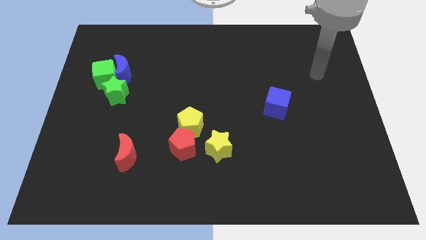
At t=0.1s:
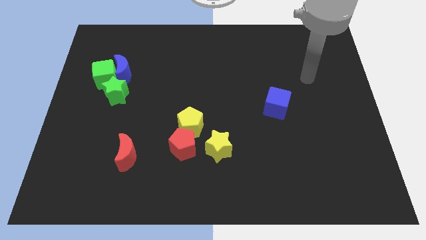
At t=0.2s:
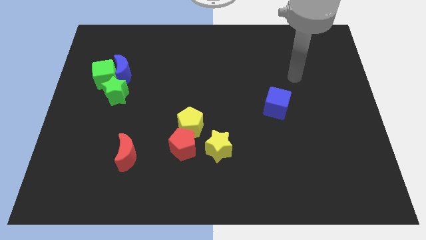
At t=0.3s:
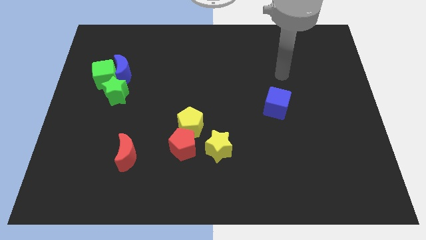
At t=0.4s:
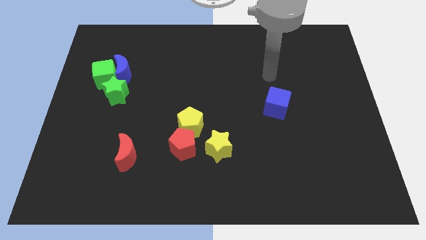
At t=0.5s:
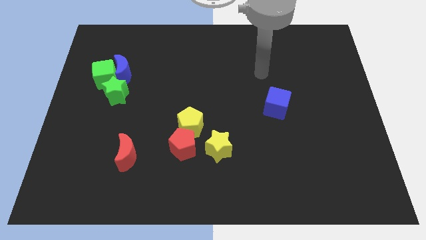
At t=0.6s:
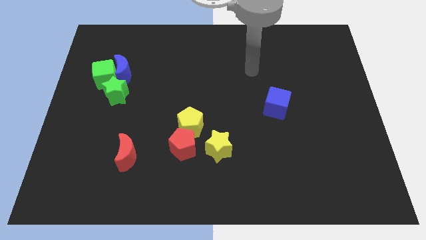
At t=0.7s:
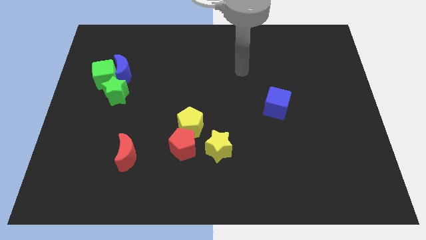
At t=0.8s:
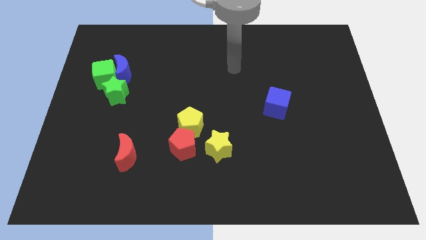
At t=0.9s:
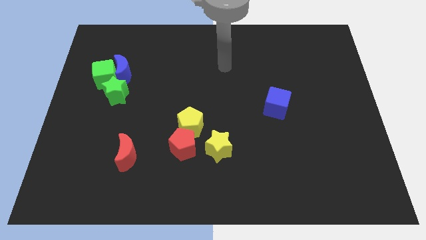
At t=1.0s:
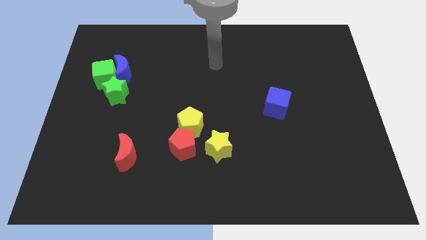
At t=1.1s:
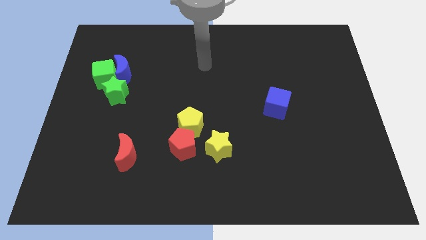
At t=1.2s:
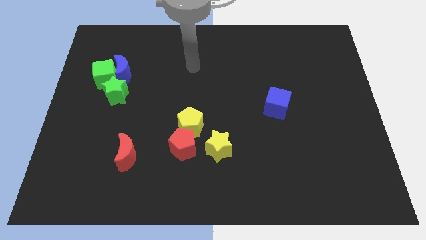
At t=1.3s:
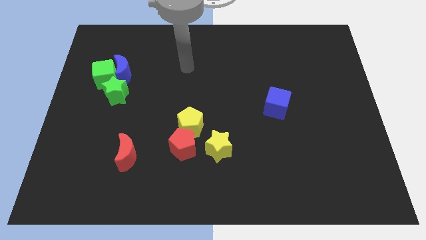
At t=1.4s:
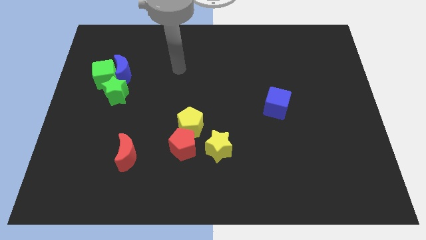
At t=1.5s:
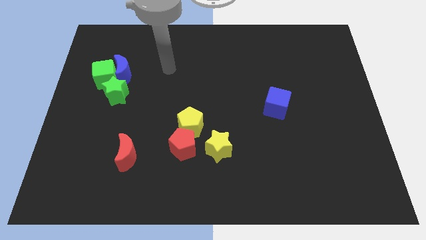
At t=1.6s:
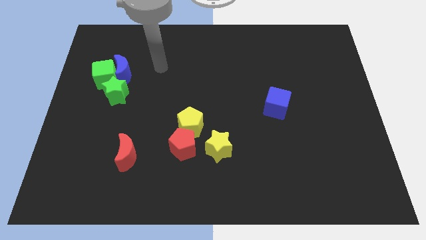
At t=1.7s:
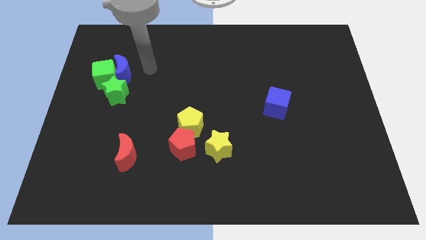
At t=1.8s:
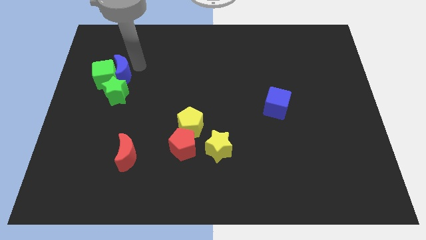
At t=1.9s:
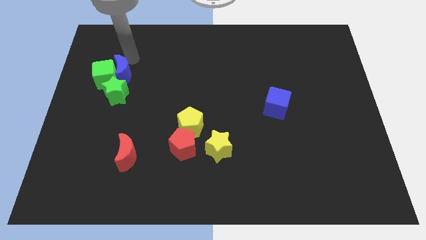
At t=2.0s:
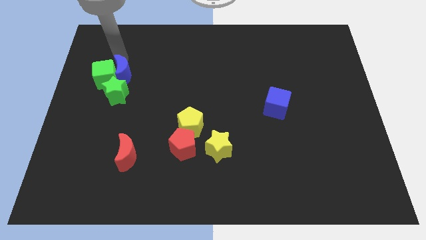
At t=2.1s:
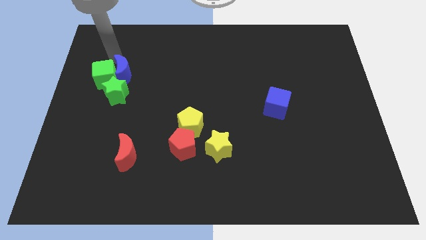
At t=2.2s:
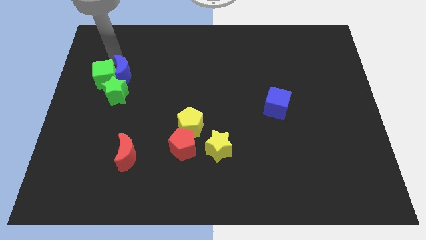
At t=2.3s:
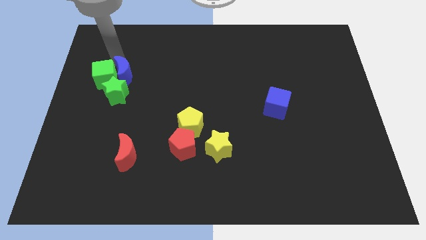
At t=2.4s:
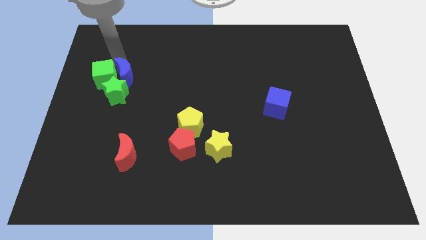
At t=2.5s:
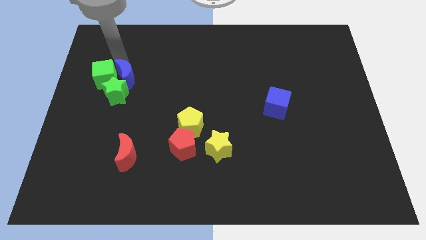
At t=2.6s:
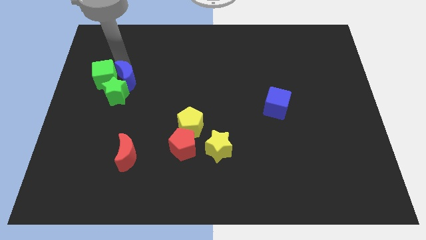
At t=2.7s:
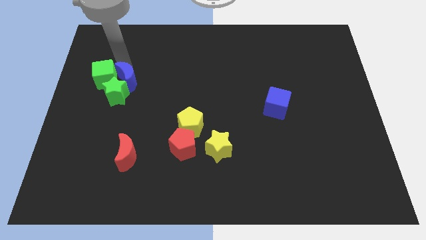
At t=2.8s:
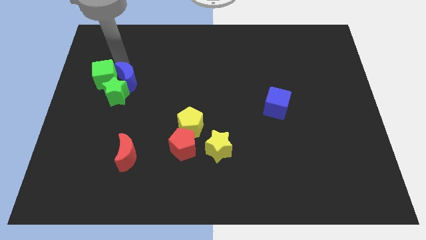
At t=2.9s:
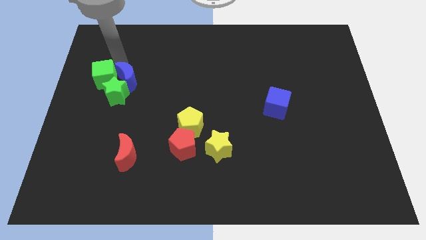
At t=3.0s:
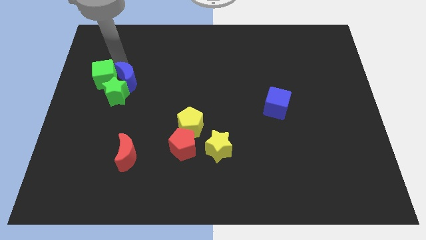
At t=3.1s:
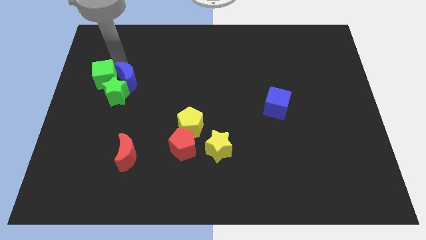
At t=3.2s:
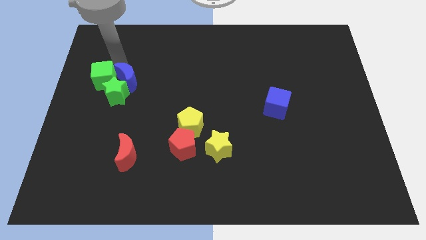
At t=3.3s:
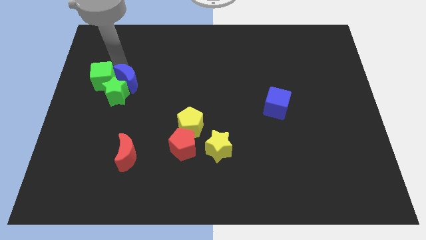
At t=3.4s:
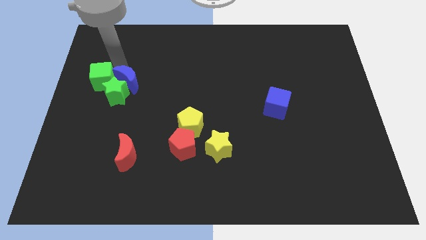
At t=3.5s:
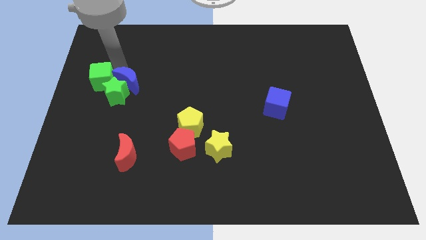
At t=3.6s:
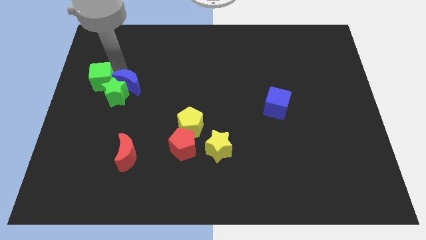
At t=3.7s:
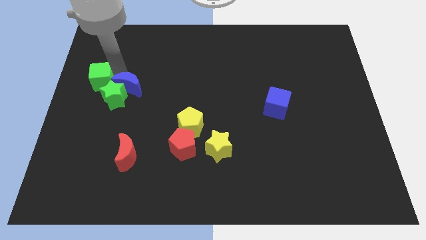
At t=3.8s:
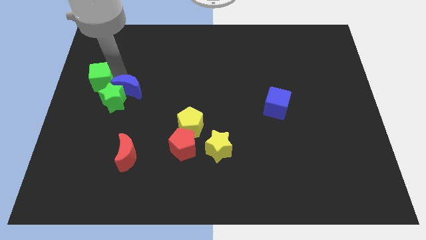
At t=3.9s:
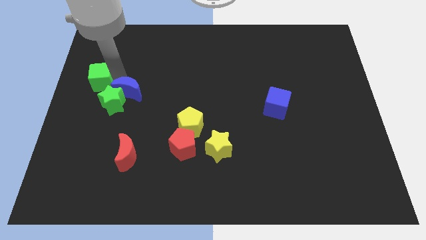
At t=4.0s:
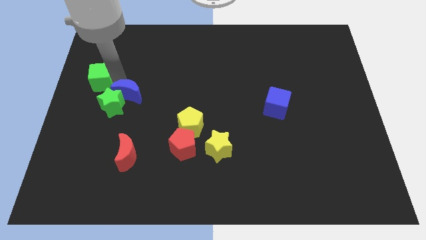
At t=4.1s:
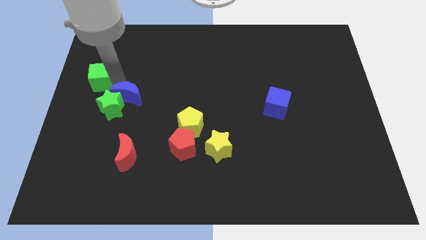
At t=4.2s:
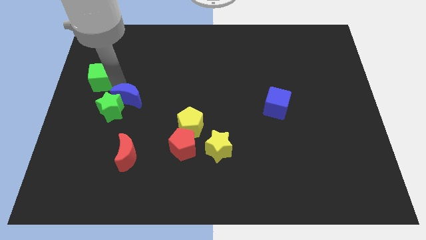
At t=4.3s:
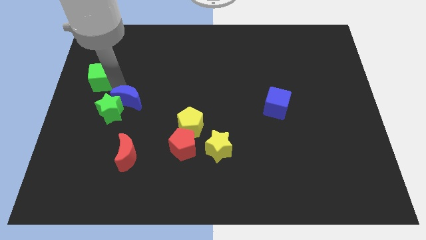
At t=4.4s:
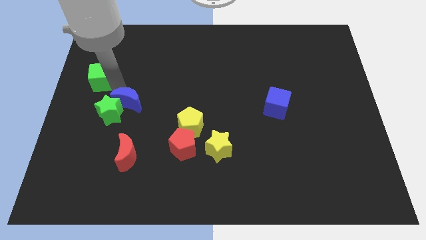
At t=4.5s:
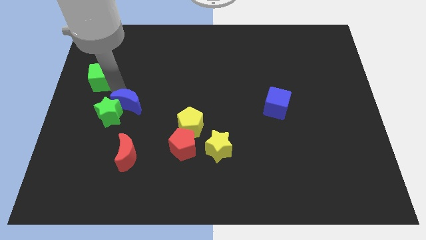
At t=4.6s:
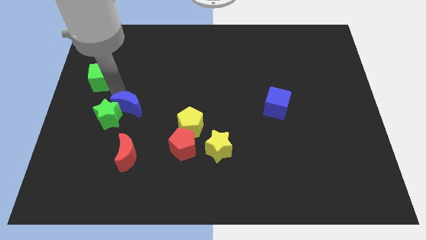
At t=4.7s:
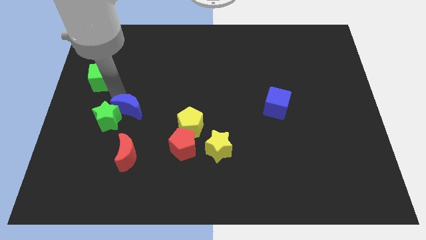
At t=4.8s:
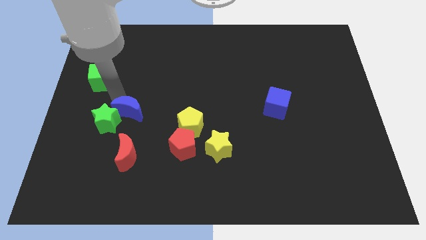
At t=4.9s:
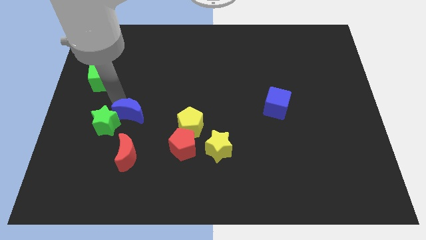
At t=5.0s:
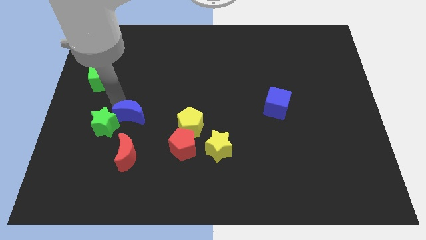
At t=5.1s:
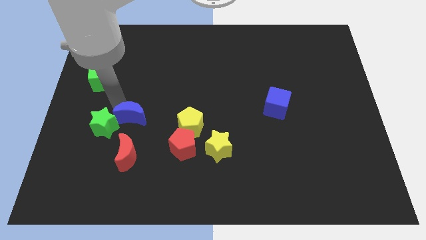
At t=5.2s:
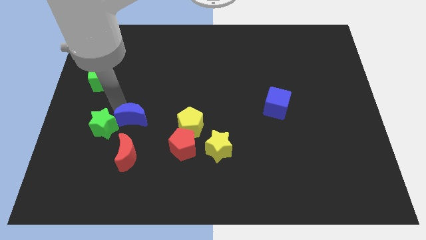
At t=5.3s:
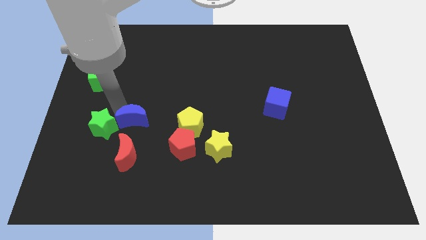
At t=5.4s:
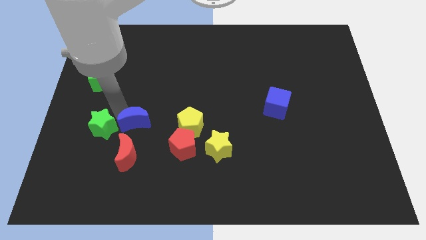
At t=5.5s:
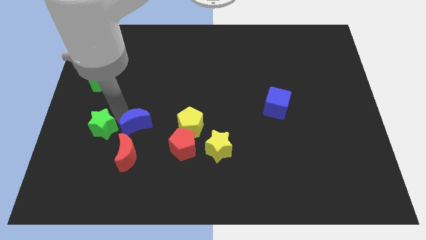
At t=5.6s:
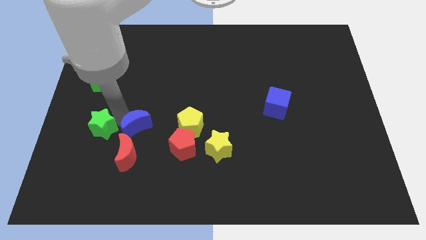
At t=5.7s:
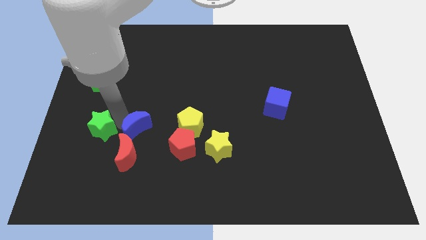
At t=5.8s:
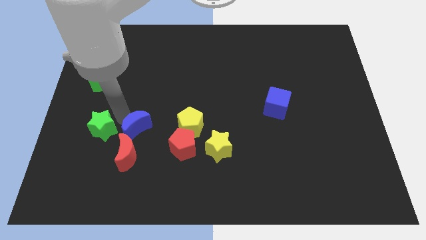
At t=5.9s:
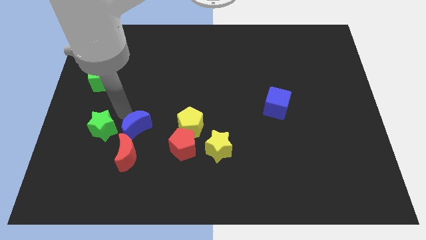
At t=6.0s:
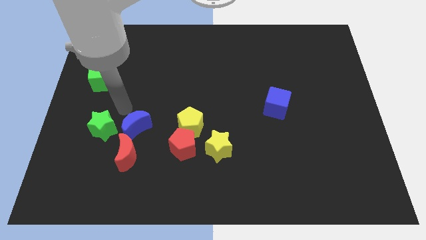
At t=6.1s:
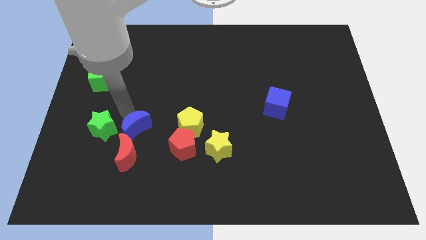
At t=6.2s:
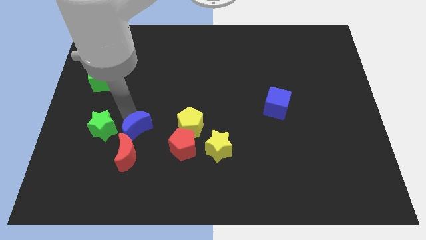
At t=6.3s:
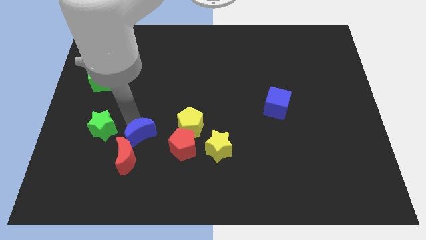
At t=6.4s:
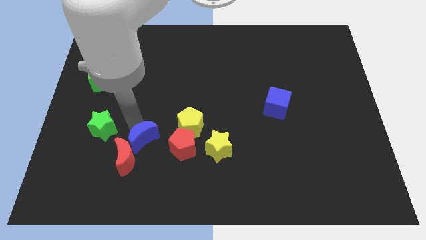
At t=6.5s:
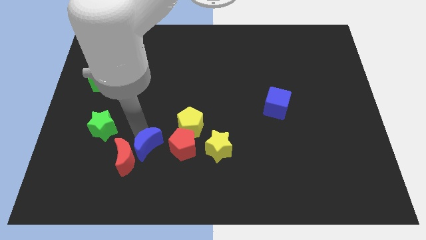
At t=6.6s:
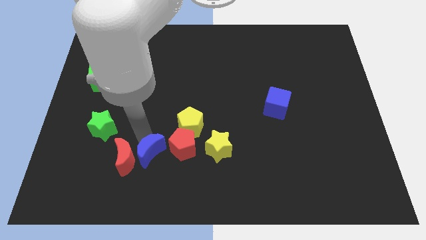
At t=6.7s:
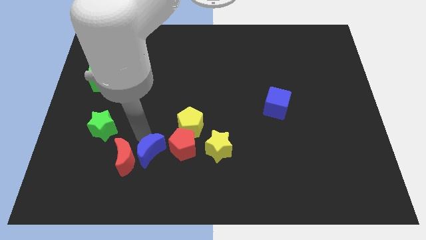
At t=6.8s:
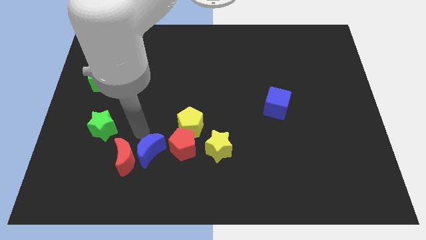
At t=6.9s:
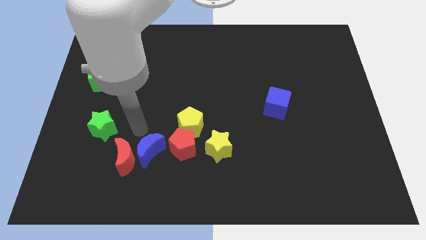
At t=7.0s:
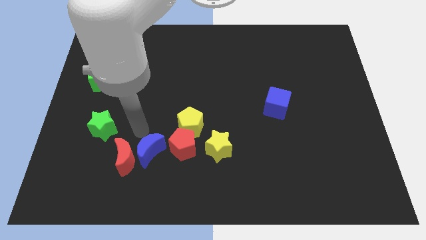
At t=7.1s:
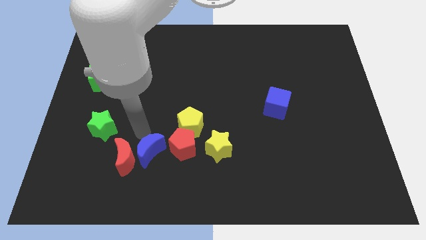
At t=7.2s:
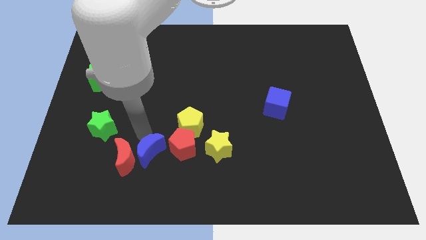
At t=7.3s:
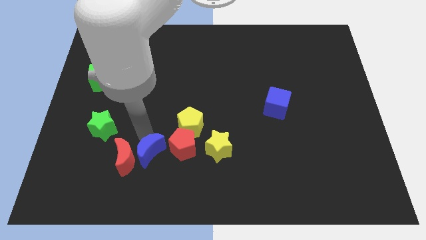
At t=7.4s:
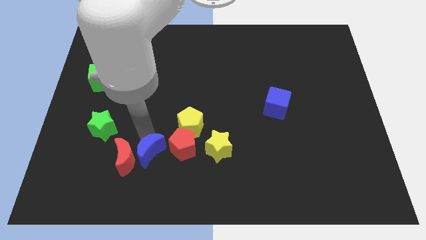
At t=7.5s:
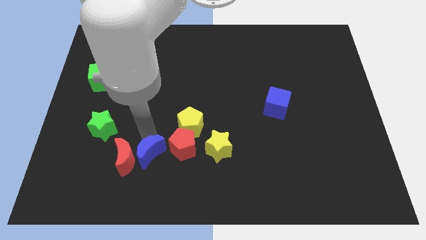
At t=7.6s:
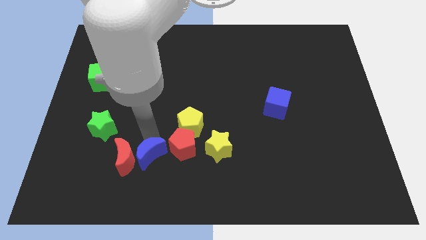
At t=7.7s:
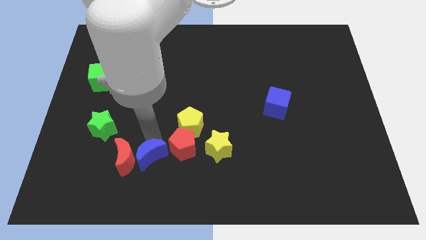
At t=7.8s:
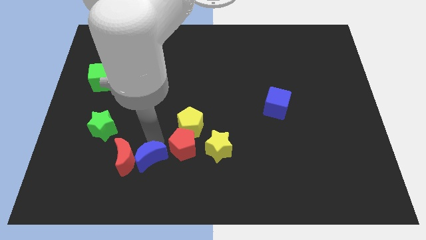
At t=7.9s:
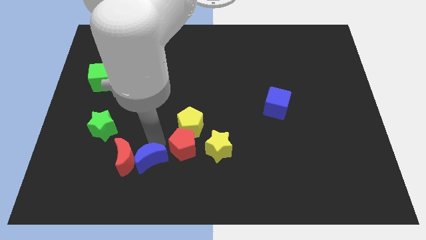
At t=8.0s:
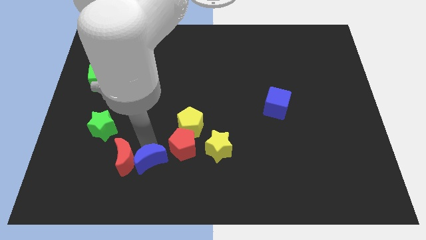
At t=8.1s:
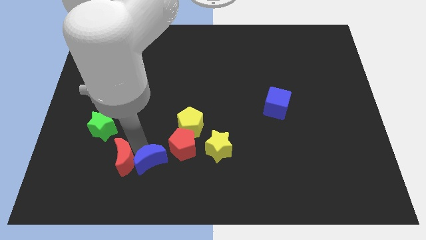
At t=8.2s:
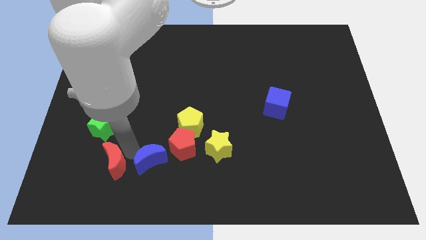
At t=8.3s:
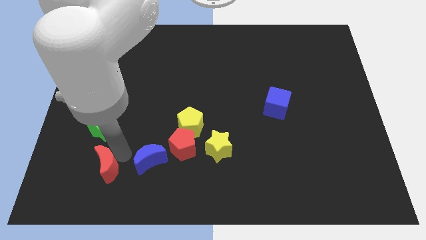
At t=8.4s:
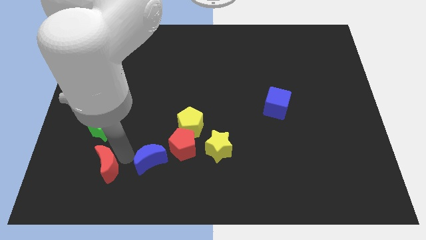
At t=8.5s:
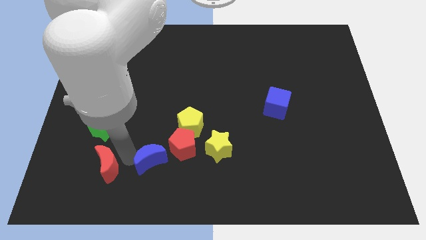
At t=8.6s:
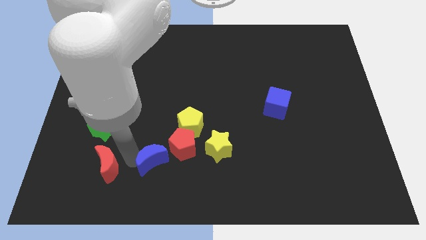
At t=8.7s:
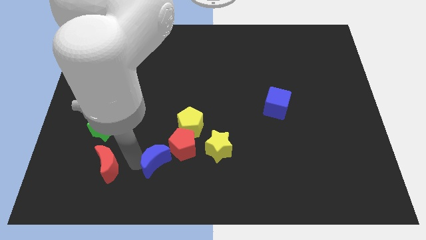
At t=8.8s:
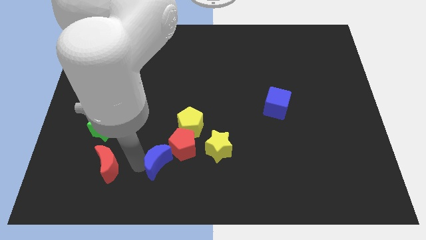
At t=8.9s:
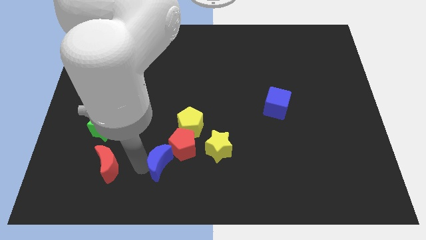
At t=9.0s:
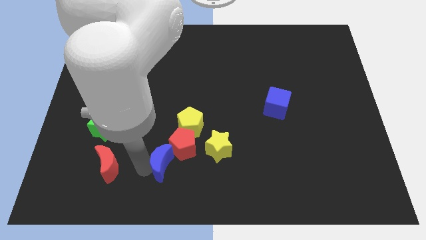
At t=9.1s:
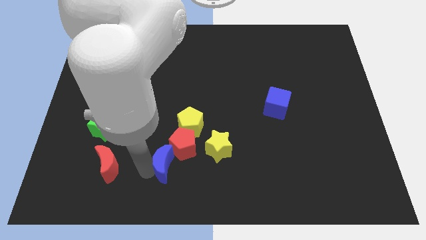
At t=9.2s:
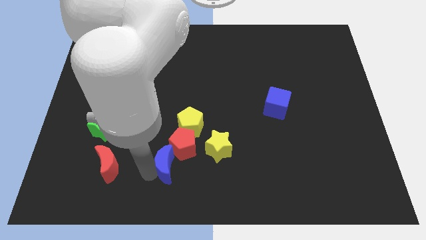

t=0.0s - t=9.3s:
put the blue moon to the bottom of the yellow pentagon
